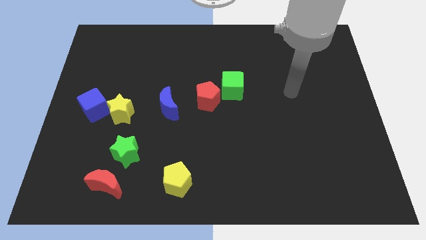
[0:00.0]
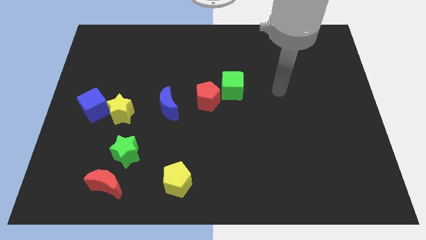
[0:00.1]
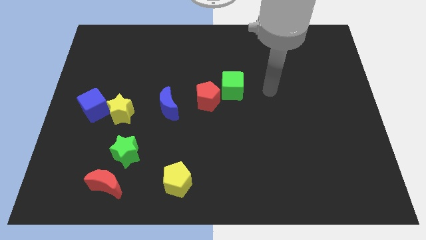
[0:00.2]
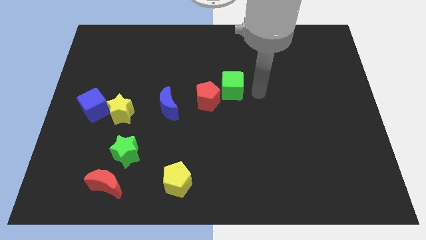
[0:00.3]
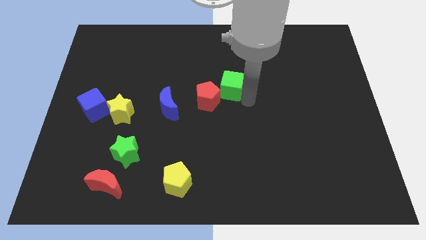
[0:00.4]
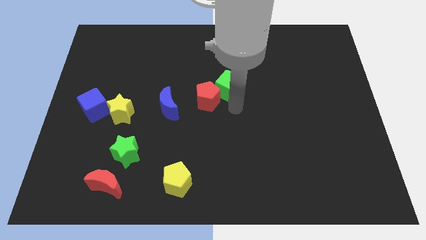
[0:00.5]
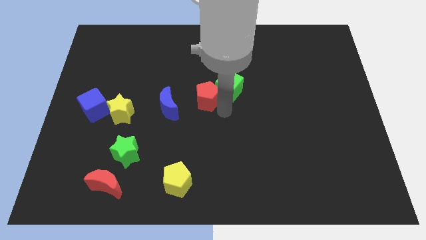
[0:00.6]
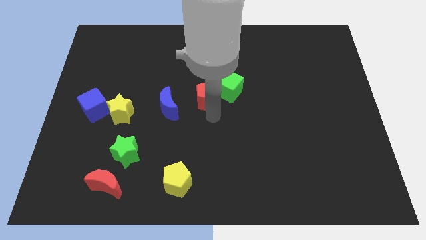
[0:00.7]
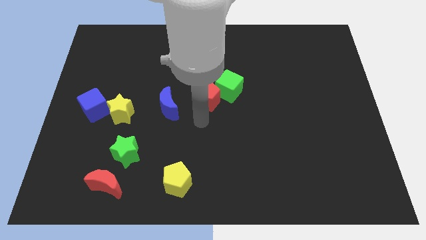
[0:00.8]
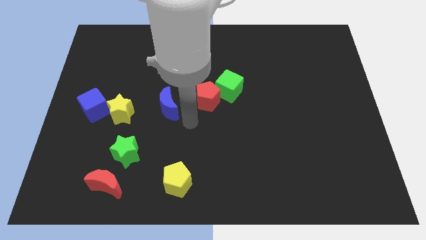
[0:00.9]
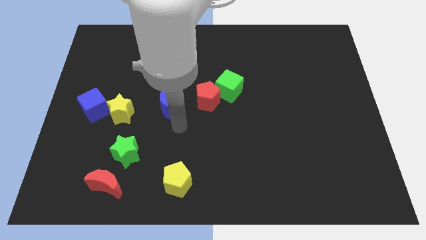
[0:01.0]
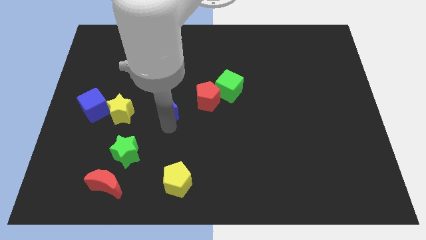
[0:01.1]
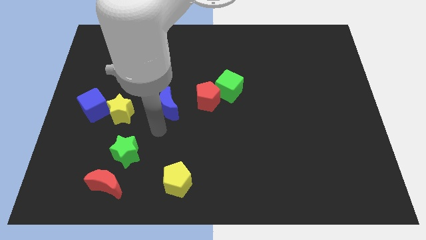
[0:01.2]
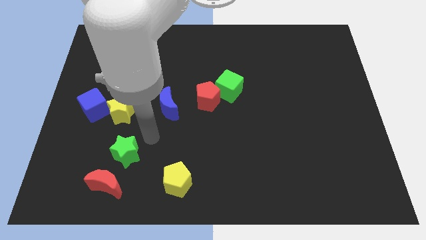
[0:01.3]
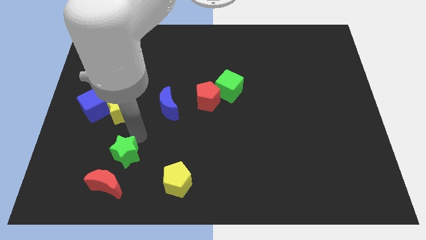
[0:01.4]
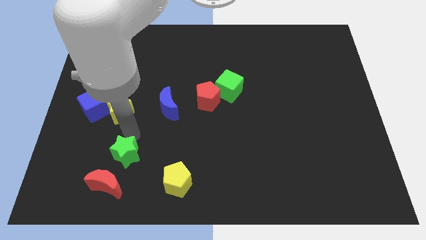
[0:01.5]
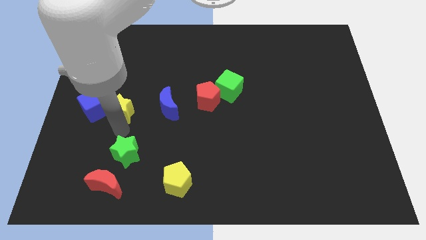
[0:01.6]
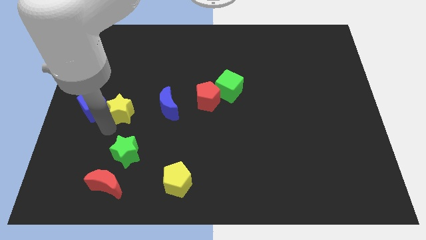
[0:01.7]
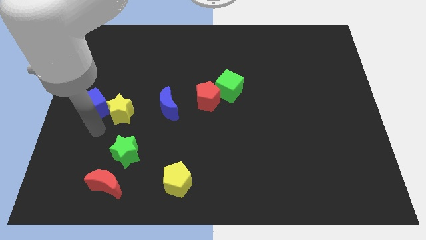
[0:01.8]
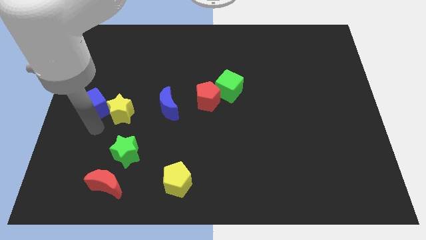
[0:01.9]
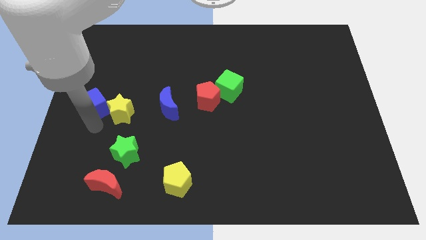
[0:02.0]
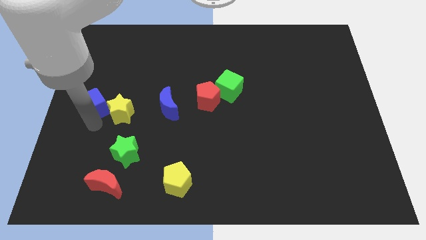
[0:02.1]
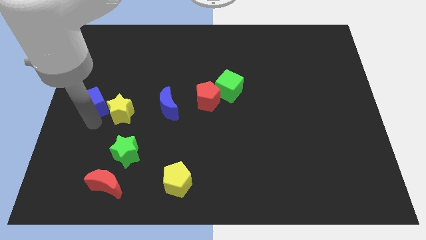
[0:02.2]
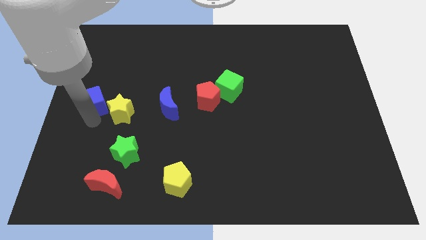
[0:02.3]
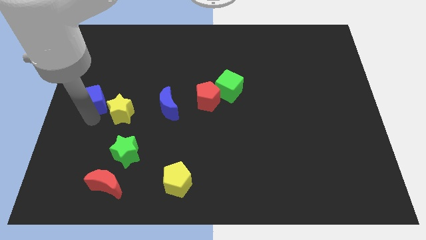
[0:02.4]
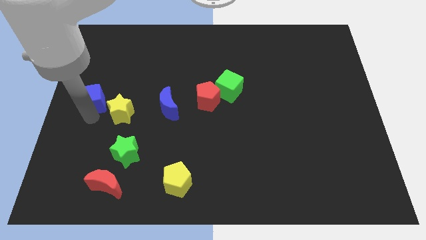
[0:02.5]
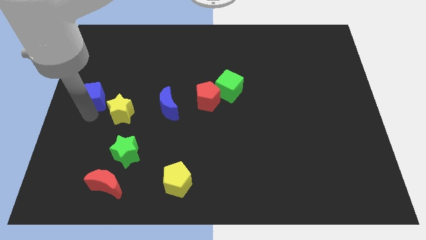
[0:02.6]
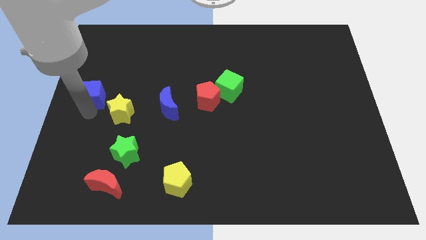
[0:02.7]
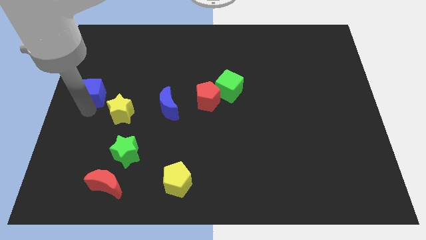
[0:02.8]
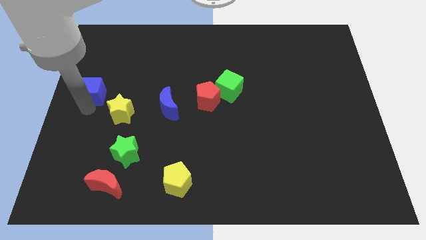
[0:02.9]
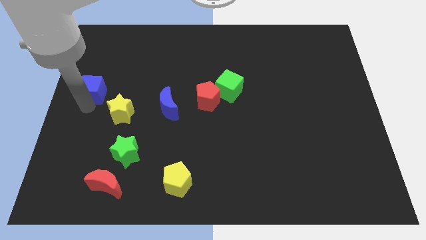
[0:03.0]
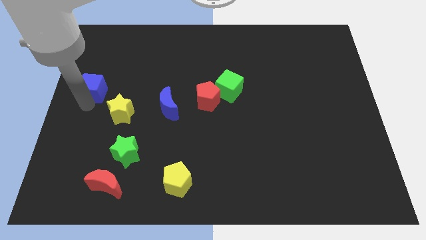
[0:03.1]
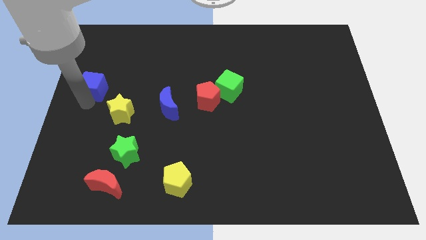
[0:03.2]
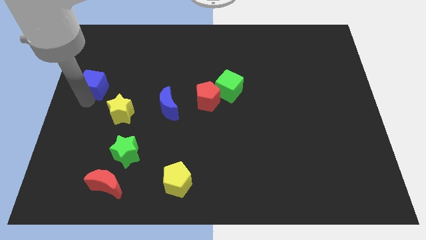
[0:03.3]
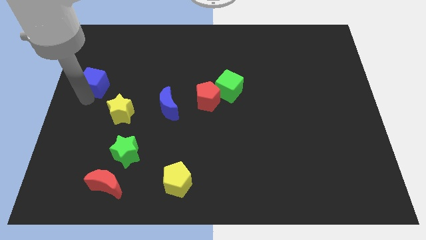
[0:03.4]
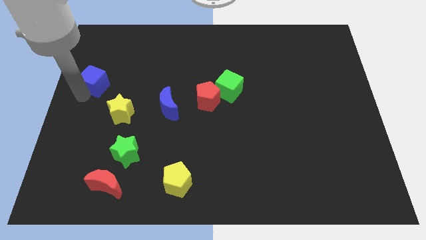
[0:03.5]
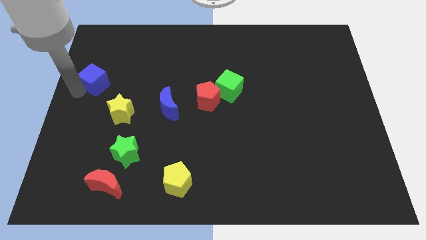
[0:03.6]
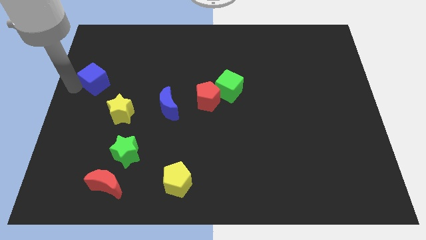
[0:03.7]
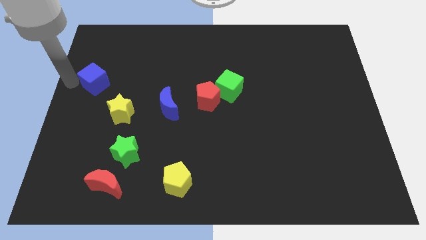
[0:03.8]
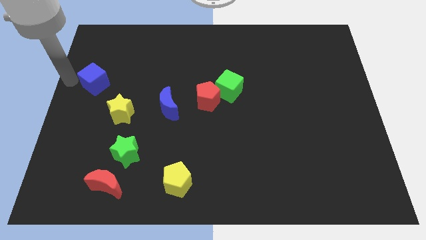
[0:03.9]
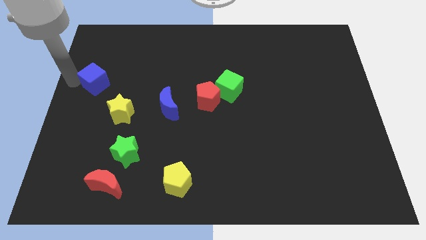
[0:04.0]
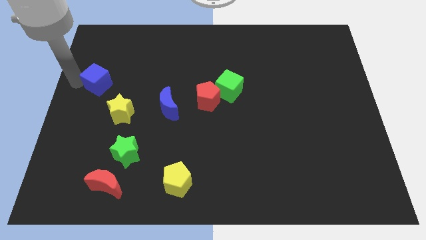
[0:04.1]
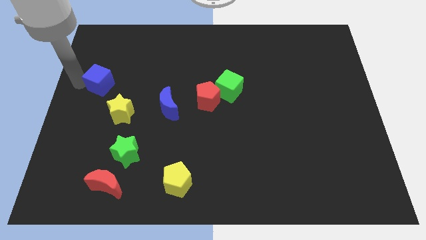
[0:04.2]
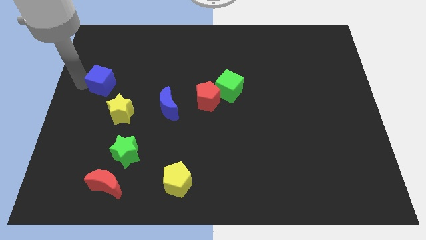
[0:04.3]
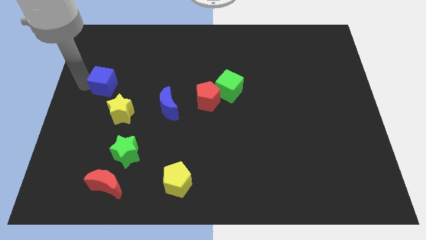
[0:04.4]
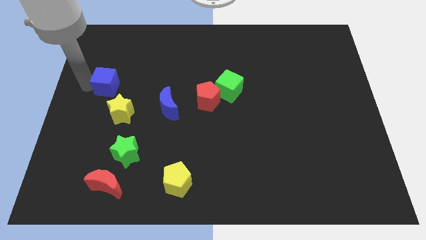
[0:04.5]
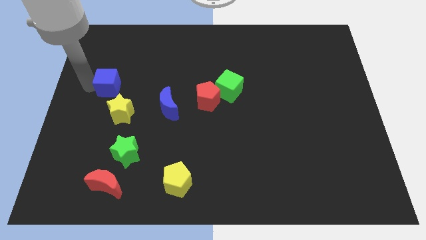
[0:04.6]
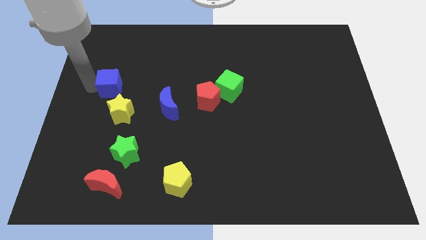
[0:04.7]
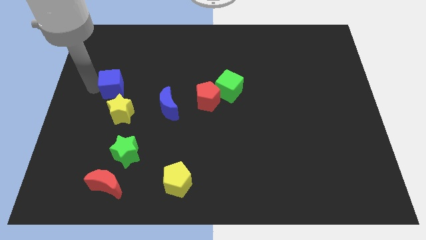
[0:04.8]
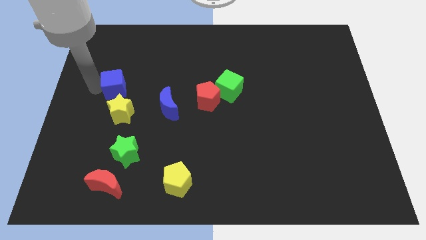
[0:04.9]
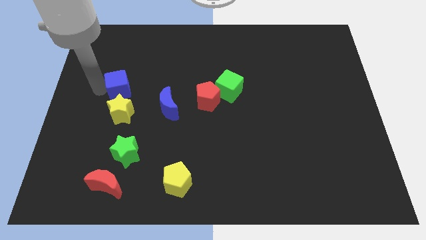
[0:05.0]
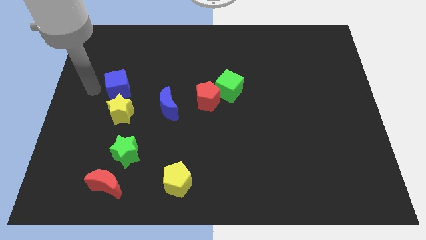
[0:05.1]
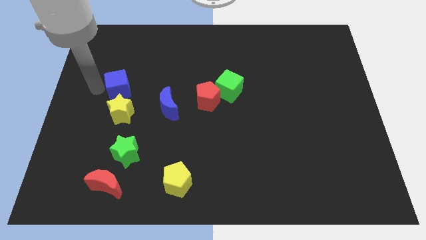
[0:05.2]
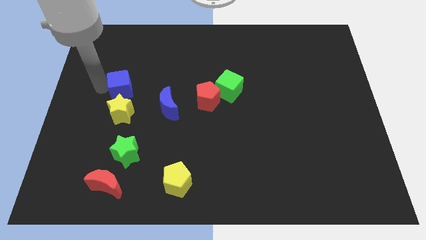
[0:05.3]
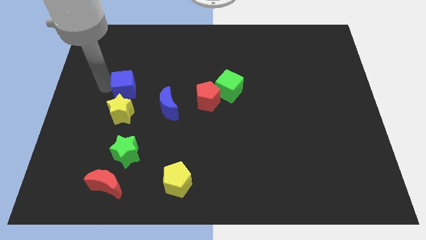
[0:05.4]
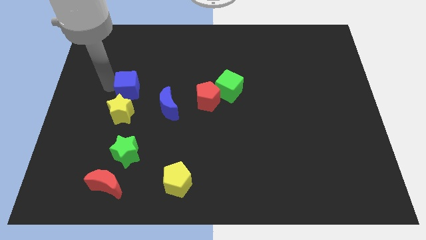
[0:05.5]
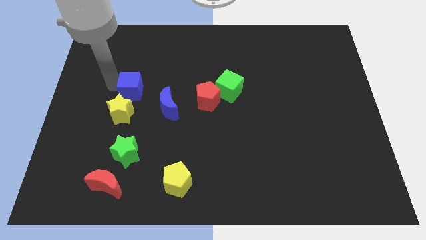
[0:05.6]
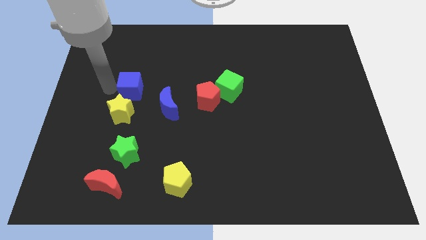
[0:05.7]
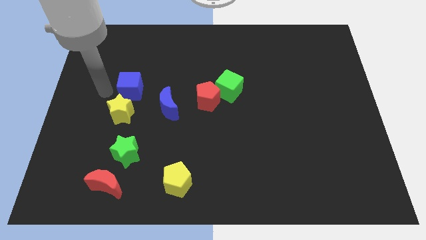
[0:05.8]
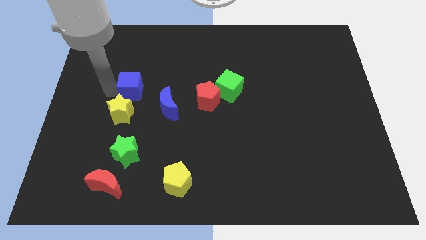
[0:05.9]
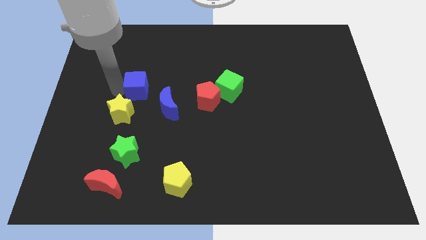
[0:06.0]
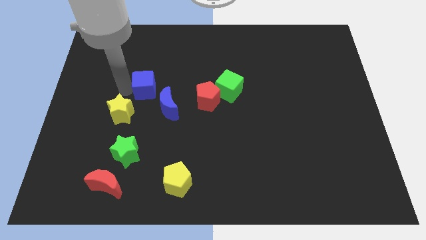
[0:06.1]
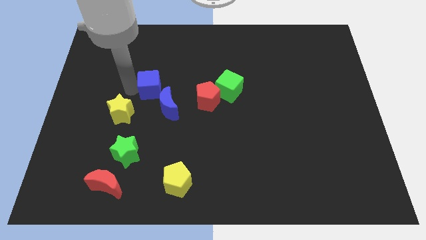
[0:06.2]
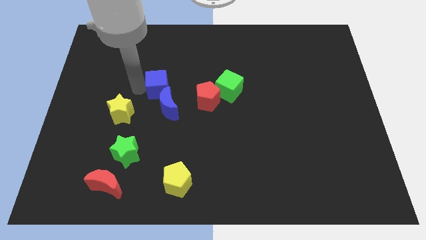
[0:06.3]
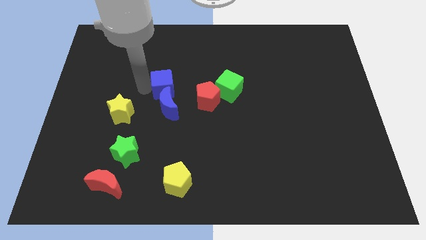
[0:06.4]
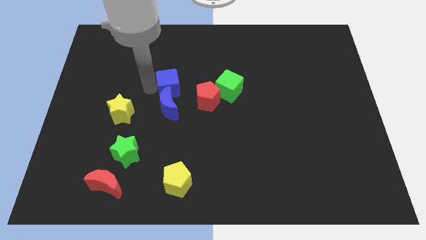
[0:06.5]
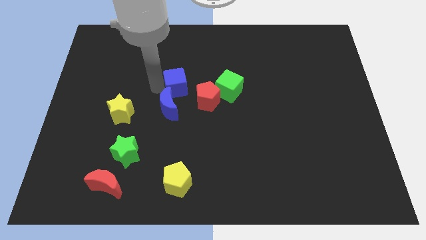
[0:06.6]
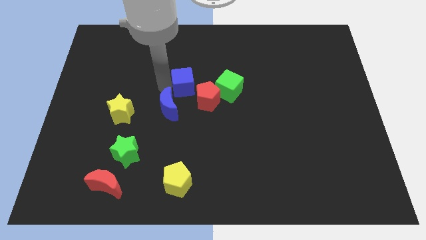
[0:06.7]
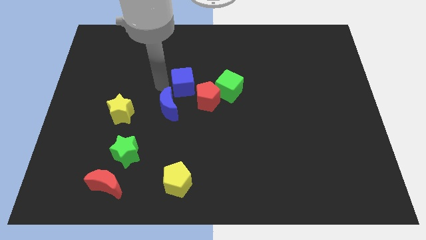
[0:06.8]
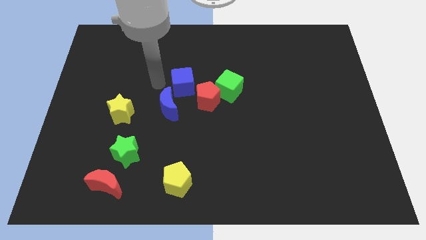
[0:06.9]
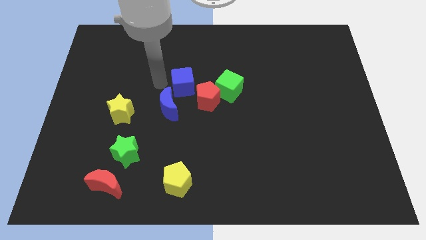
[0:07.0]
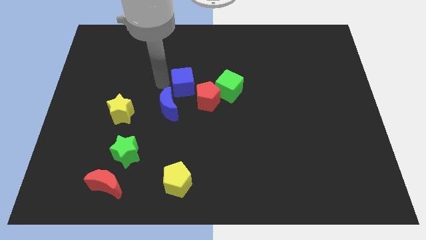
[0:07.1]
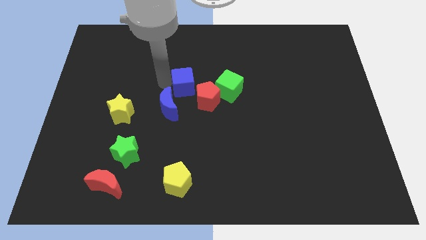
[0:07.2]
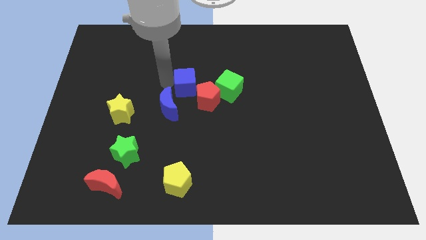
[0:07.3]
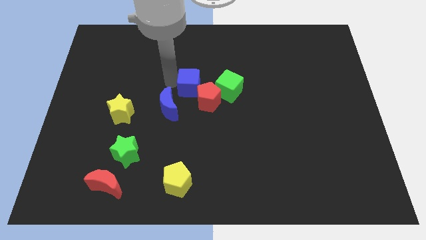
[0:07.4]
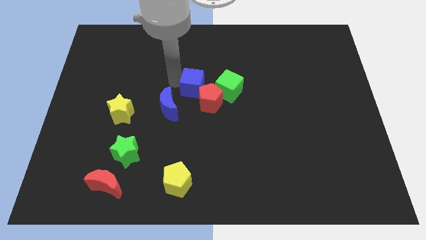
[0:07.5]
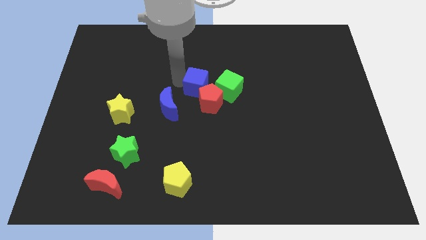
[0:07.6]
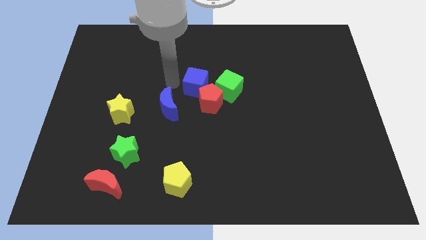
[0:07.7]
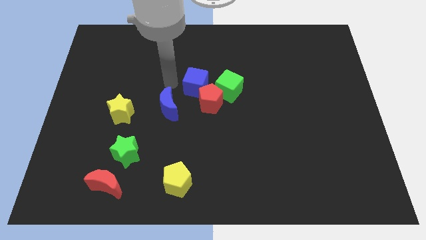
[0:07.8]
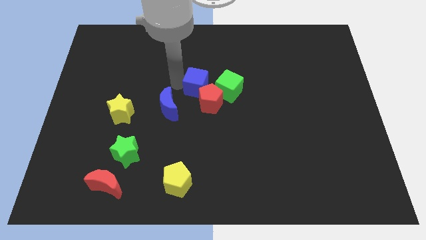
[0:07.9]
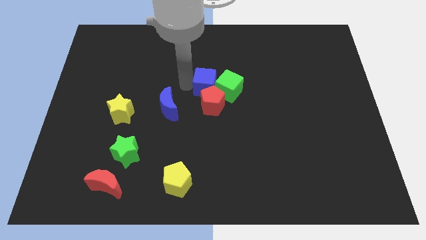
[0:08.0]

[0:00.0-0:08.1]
move the blue cube to the green cube

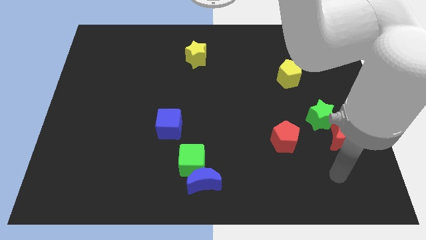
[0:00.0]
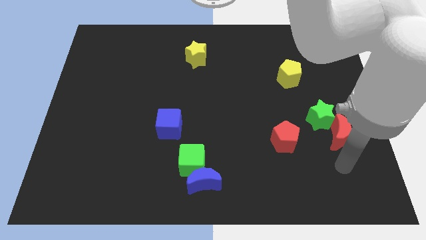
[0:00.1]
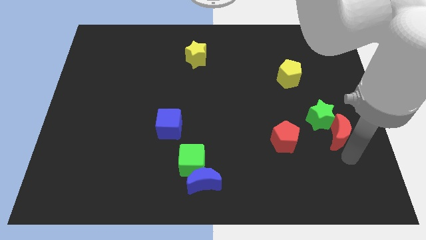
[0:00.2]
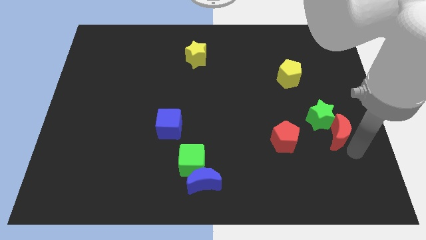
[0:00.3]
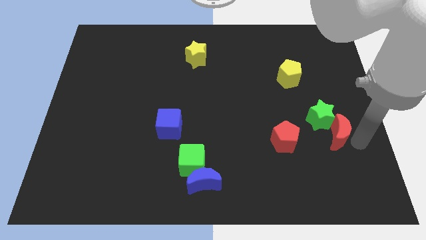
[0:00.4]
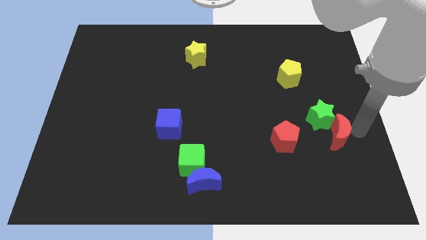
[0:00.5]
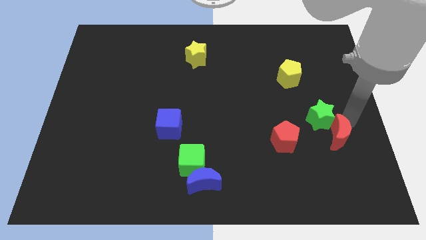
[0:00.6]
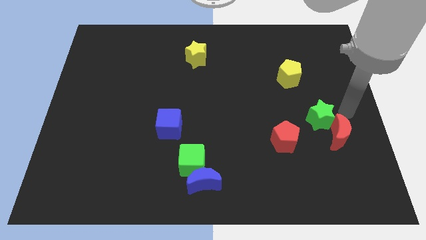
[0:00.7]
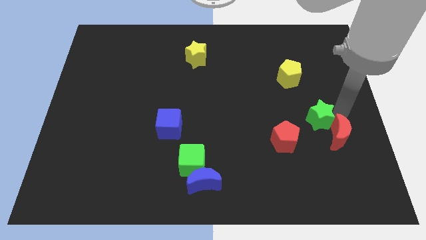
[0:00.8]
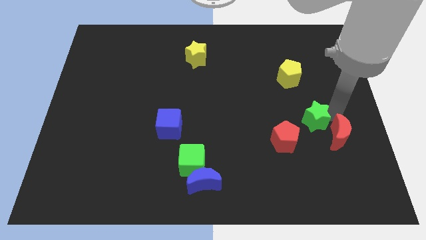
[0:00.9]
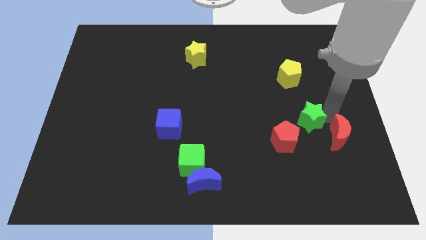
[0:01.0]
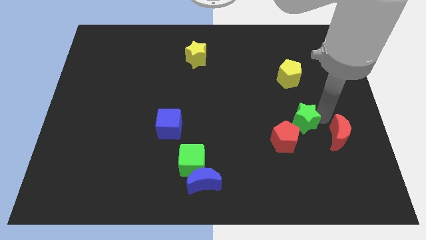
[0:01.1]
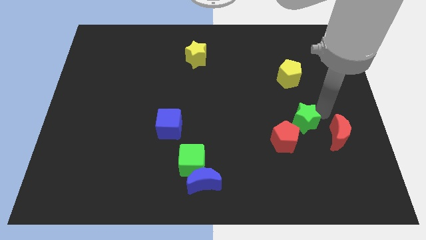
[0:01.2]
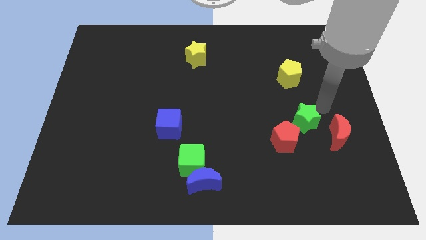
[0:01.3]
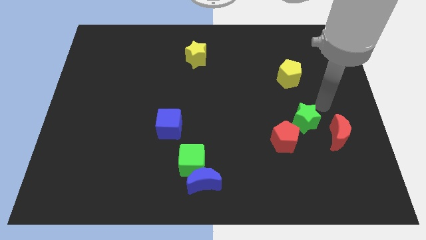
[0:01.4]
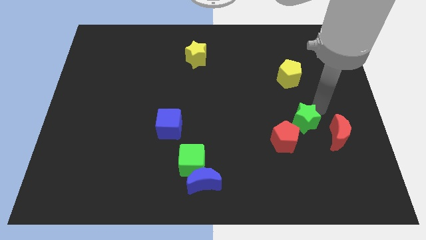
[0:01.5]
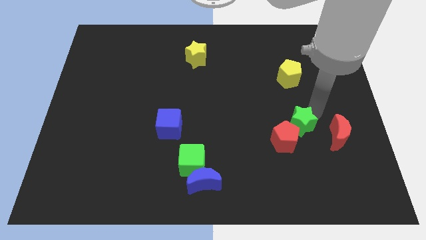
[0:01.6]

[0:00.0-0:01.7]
slide the green star next to the red pentagon
